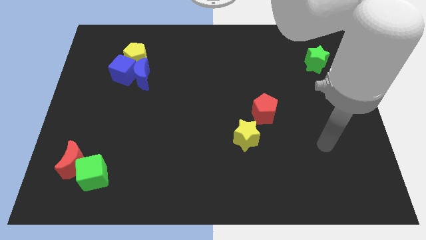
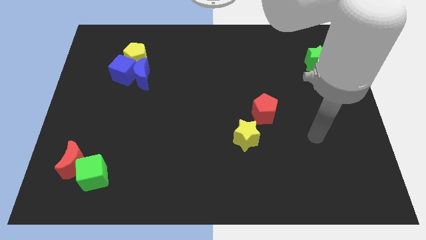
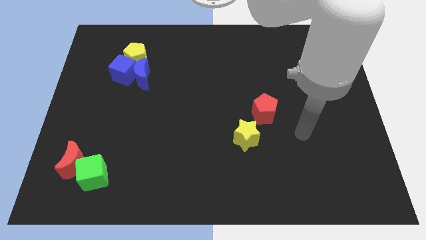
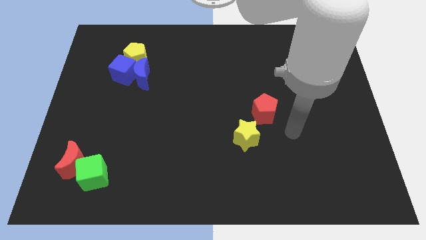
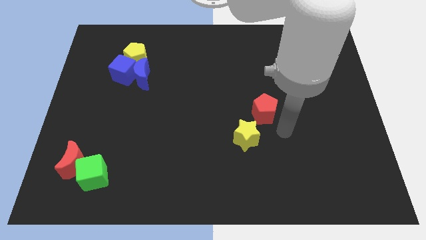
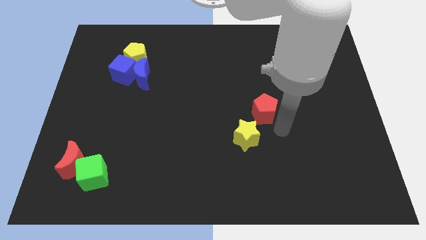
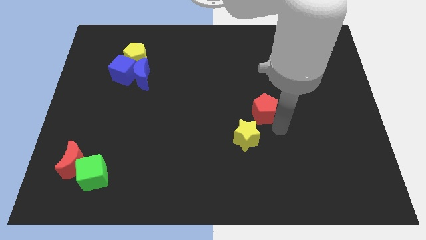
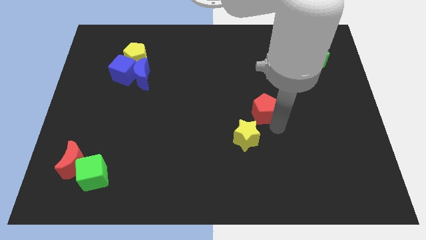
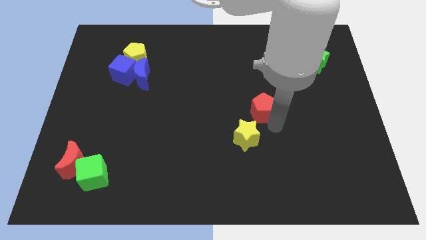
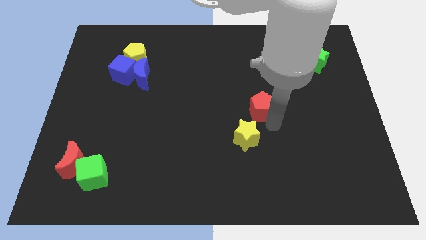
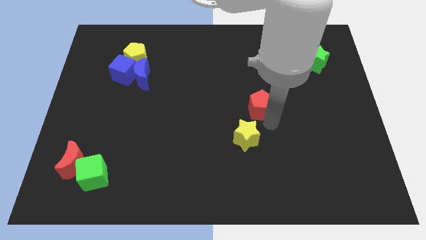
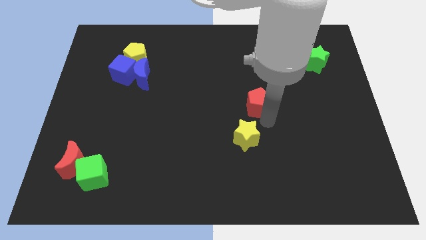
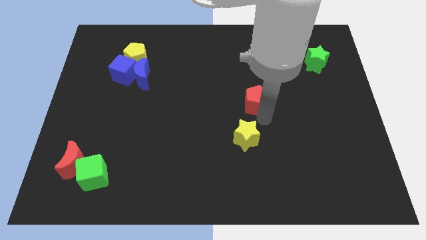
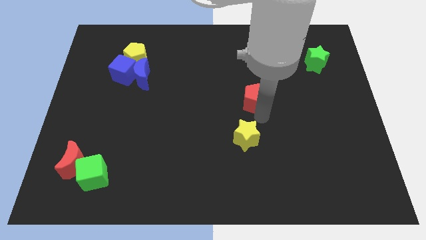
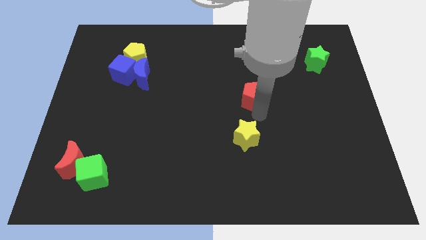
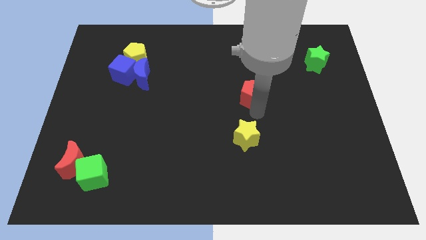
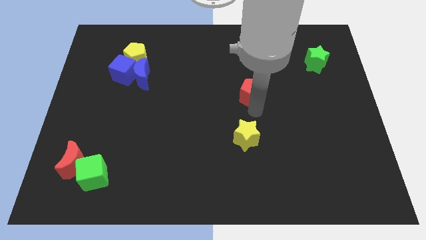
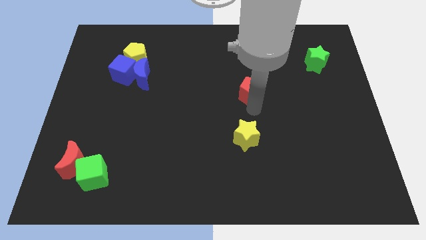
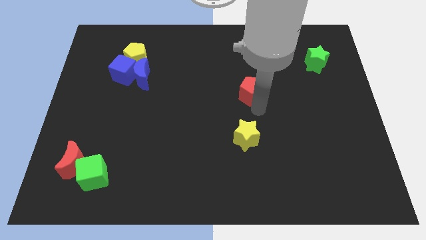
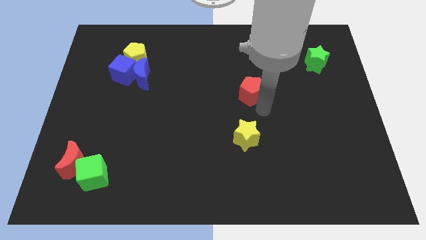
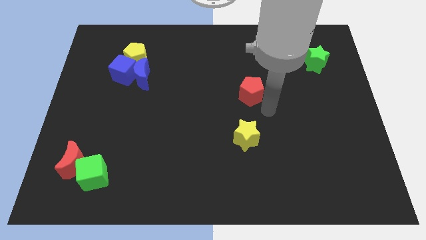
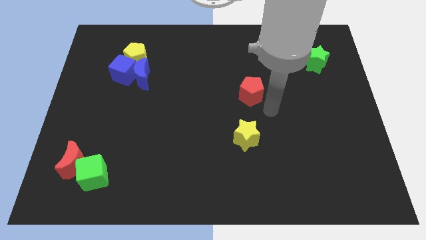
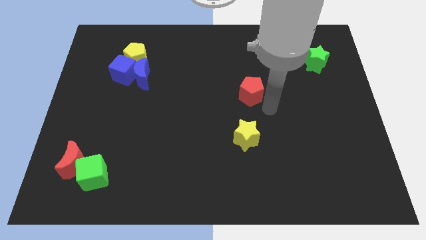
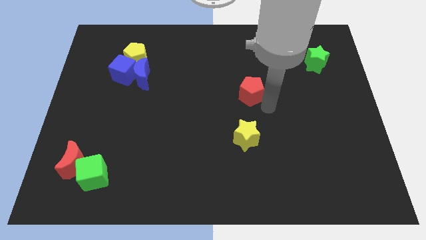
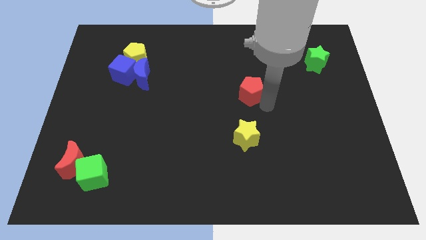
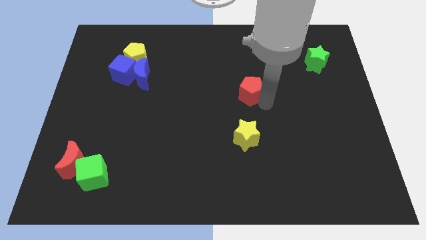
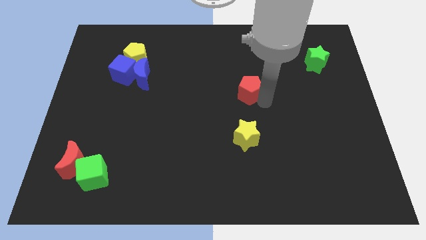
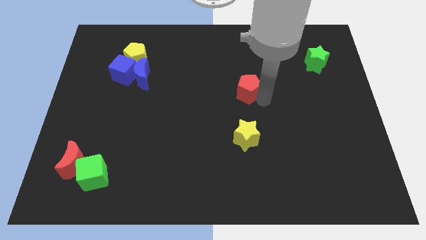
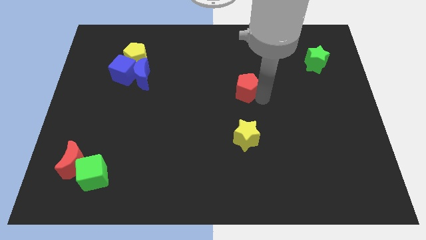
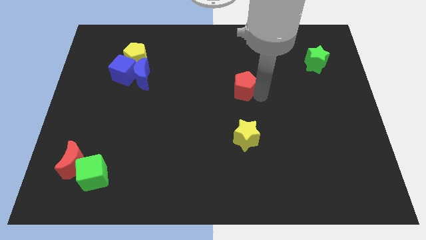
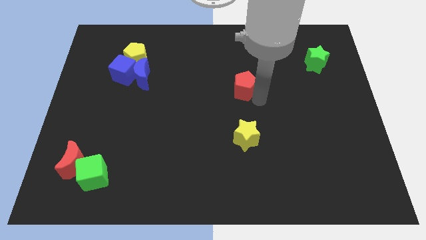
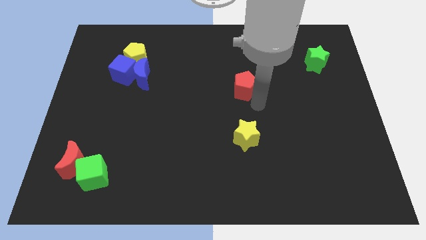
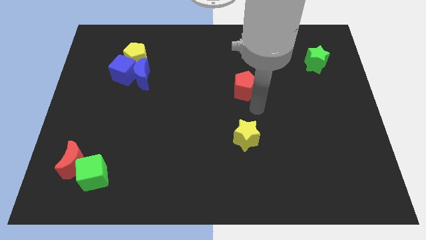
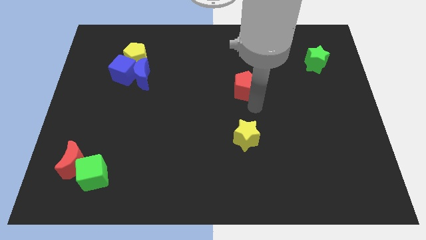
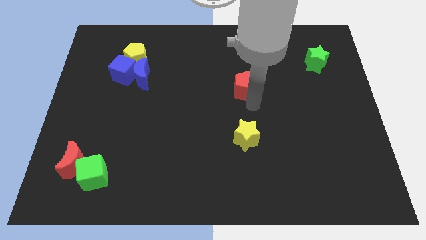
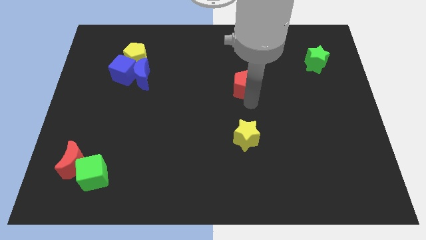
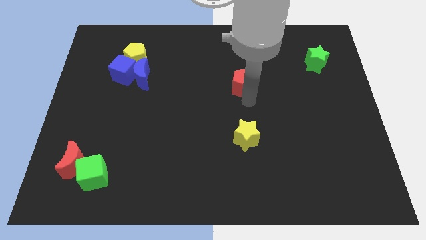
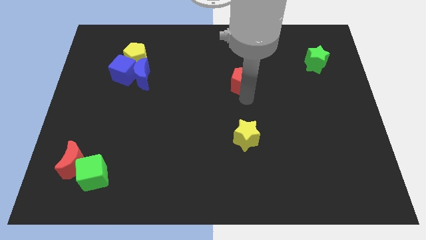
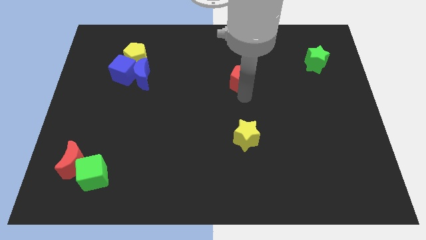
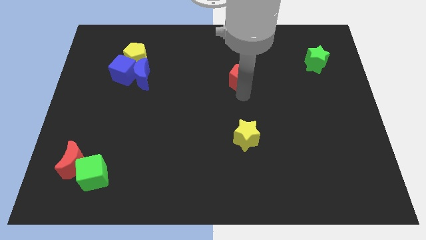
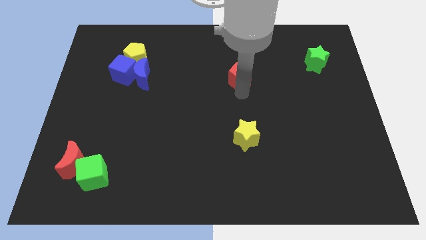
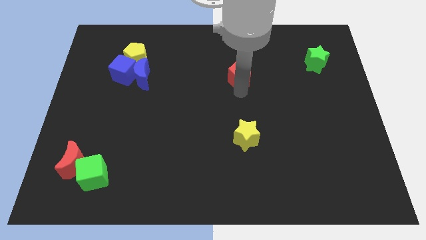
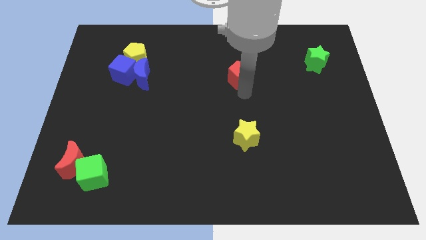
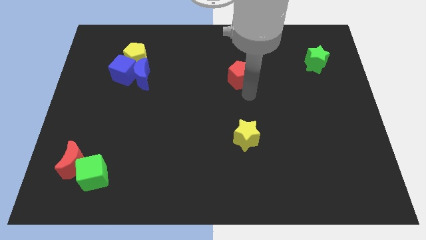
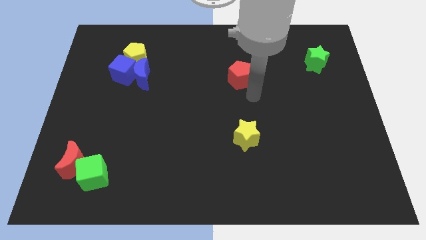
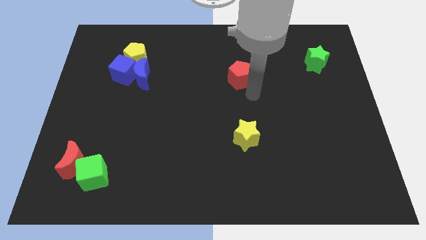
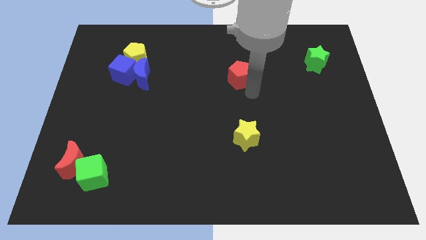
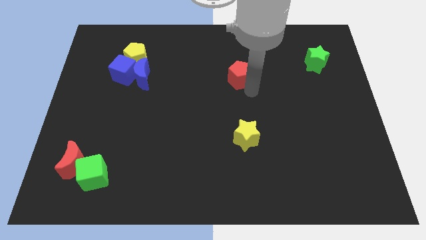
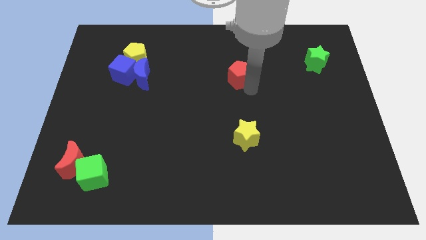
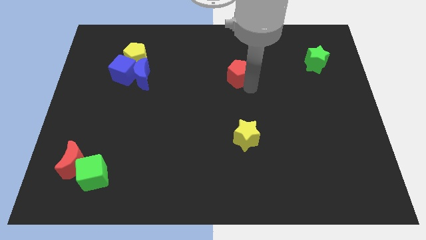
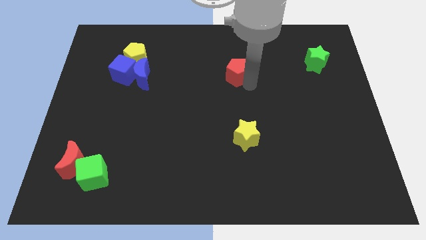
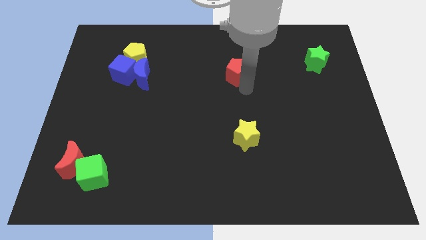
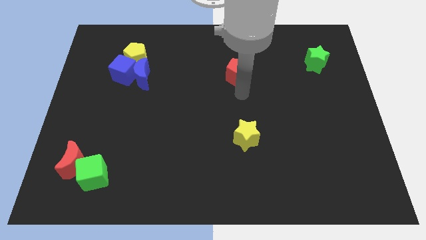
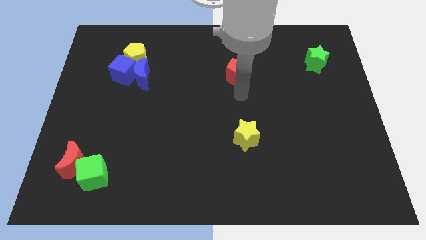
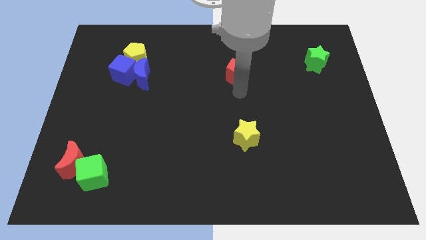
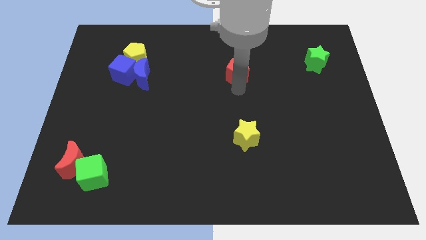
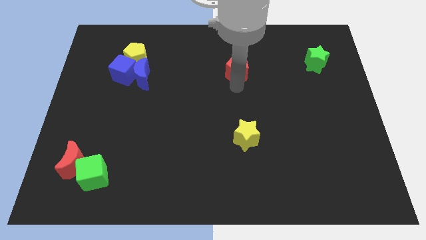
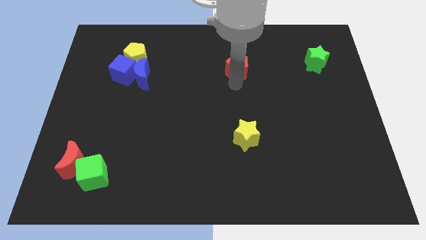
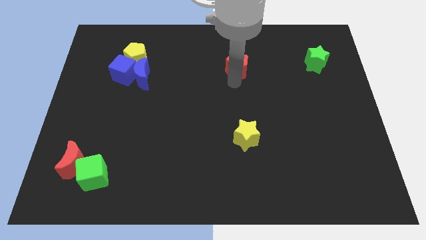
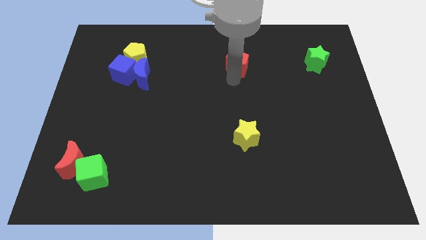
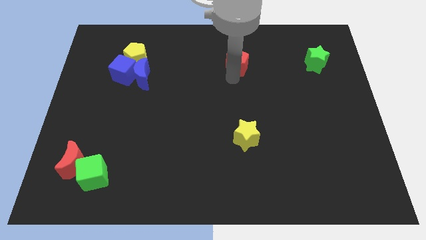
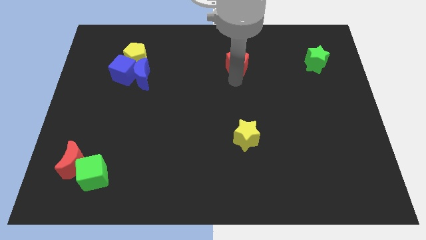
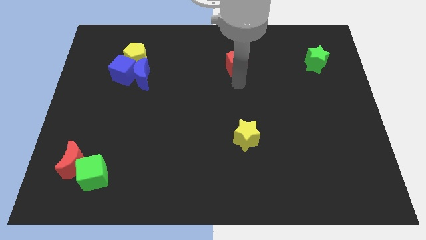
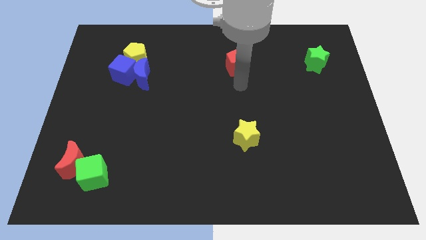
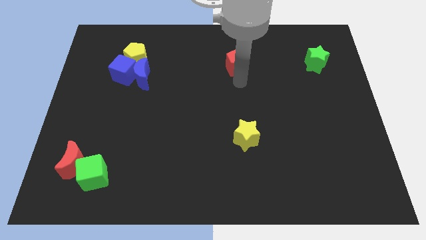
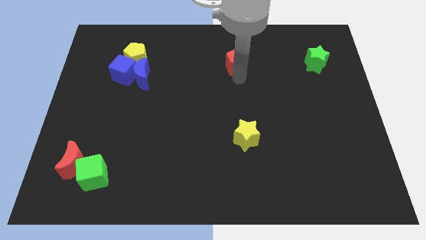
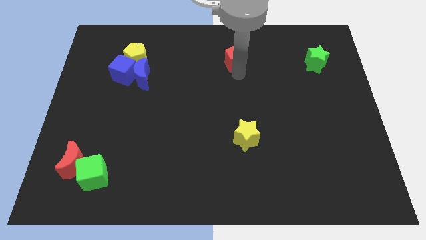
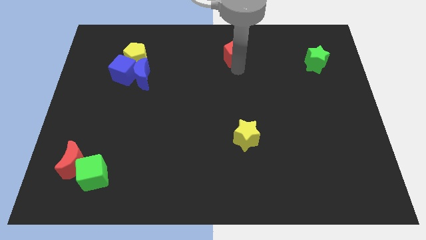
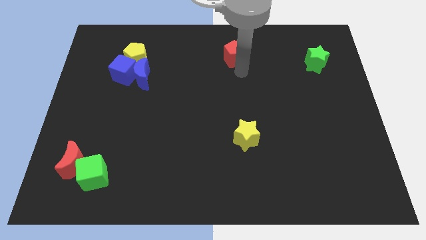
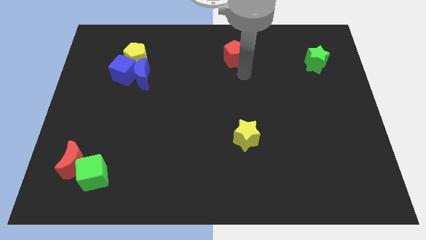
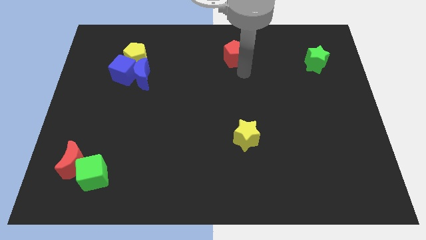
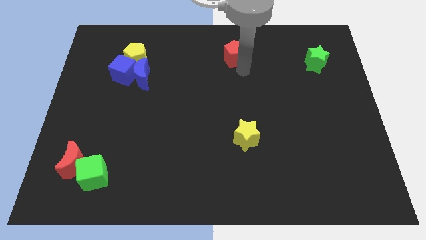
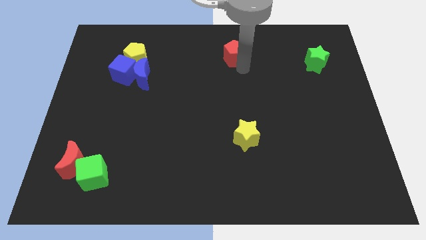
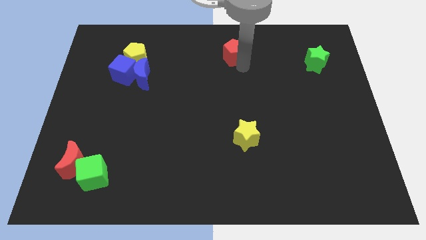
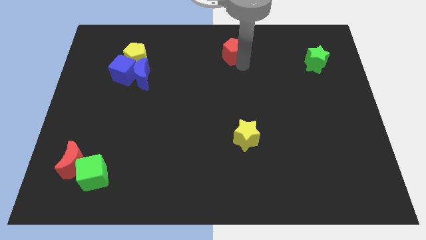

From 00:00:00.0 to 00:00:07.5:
slide the red pentagon to the top side
